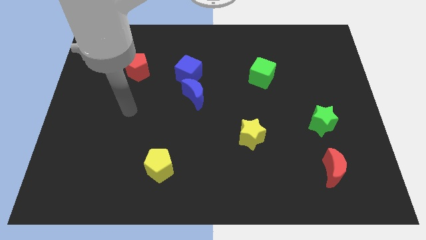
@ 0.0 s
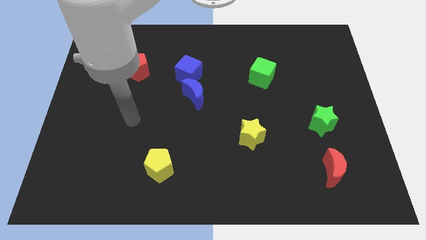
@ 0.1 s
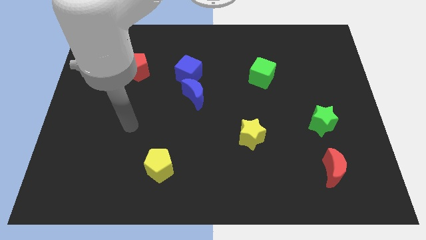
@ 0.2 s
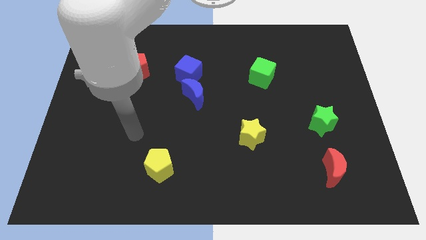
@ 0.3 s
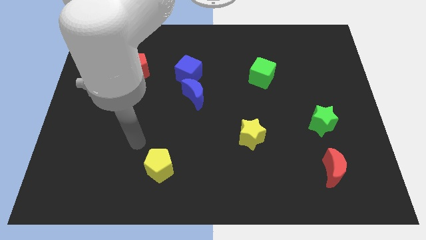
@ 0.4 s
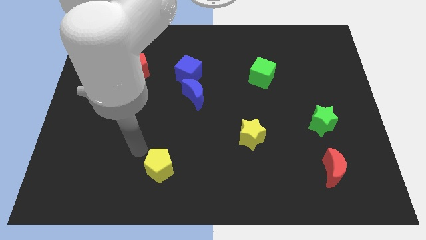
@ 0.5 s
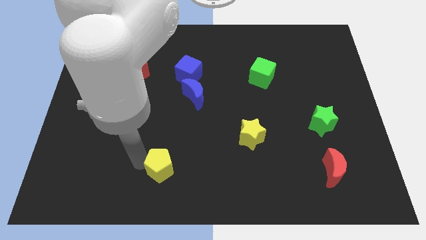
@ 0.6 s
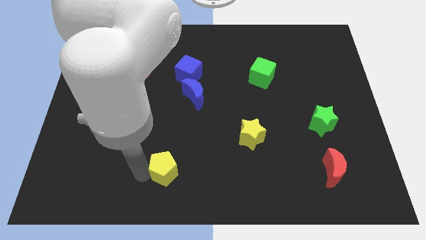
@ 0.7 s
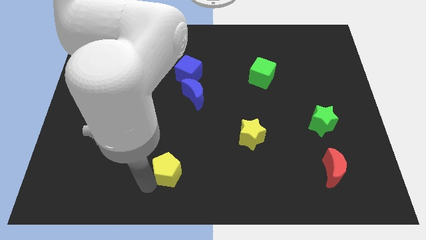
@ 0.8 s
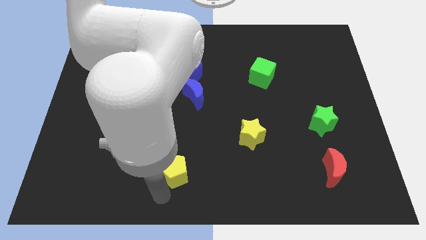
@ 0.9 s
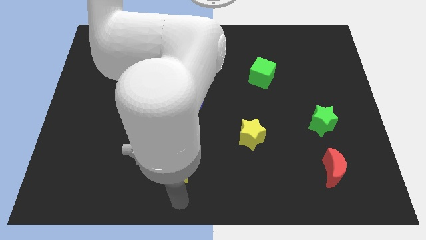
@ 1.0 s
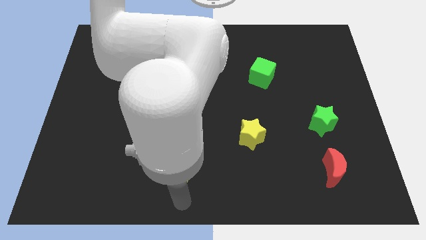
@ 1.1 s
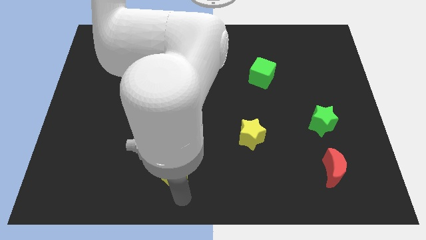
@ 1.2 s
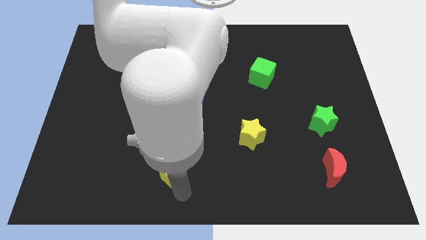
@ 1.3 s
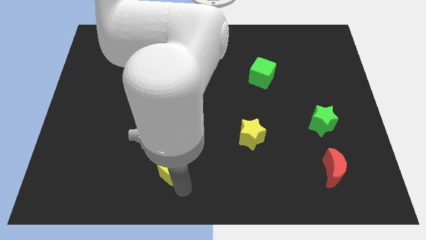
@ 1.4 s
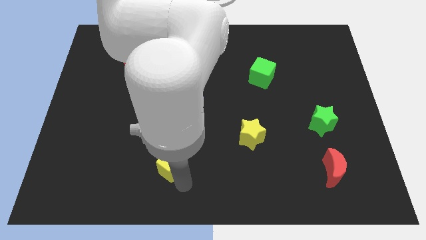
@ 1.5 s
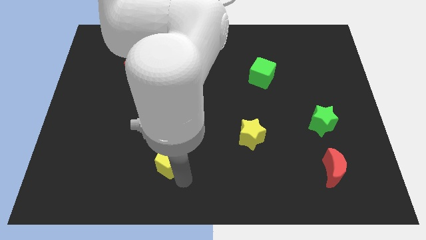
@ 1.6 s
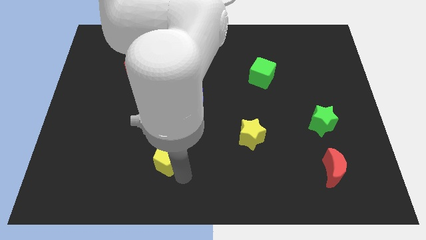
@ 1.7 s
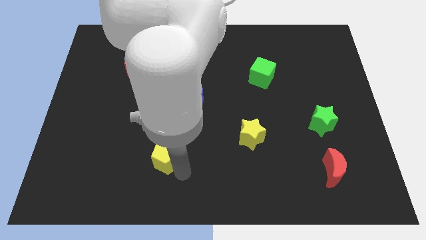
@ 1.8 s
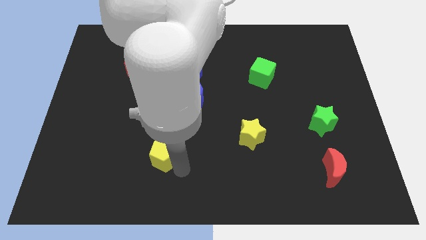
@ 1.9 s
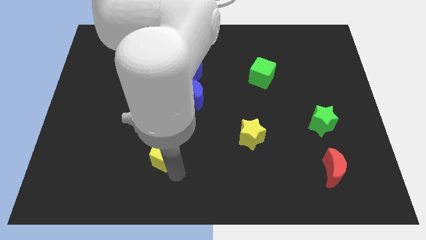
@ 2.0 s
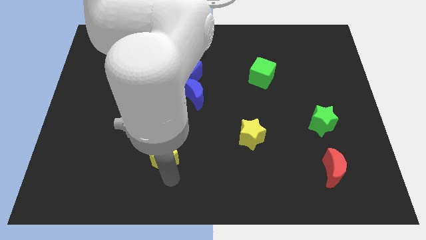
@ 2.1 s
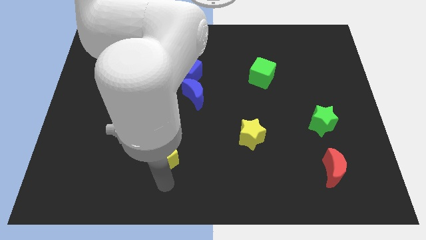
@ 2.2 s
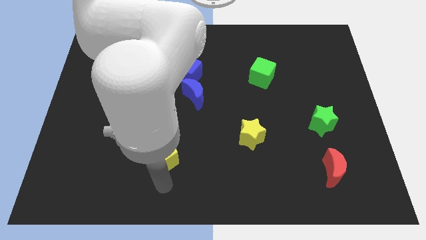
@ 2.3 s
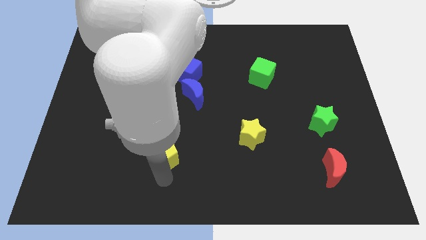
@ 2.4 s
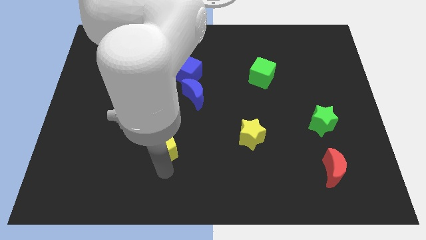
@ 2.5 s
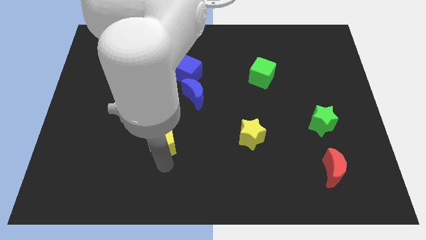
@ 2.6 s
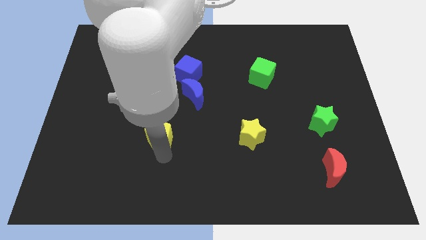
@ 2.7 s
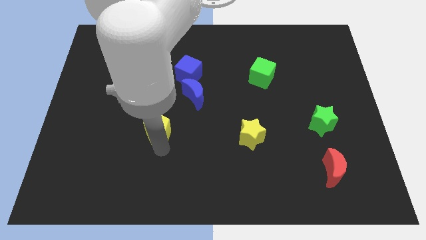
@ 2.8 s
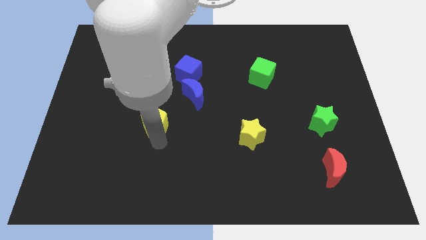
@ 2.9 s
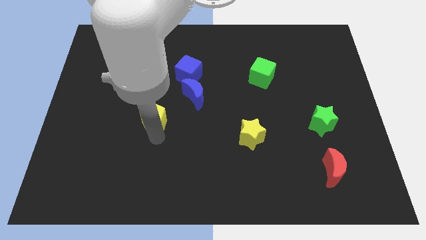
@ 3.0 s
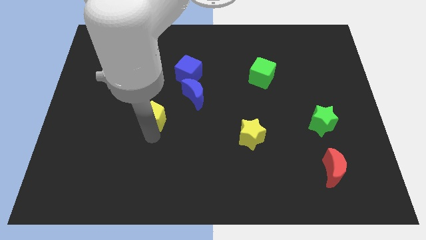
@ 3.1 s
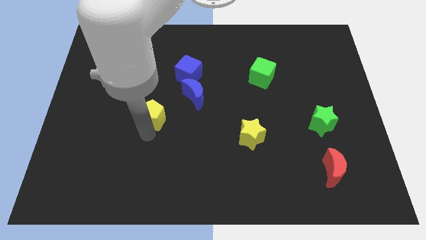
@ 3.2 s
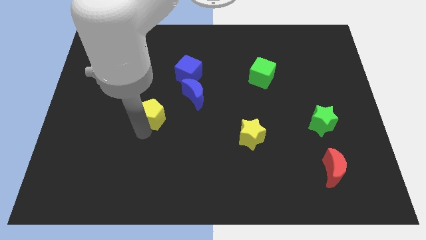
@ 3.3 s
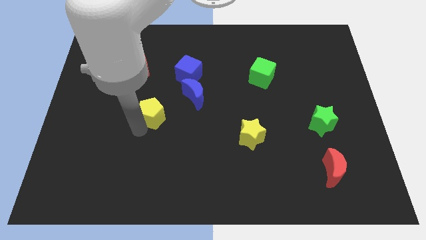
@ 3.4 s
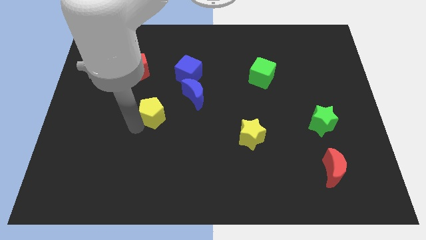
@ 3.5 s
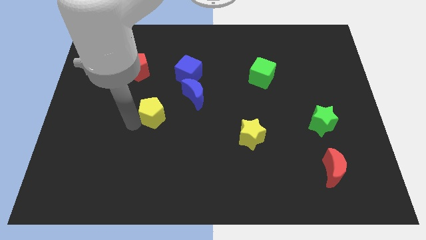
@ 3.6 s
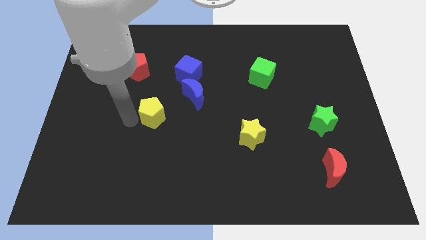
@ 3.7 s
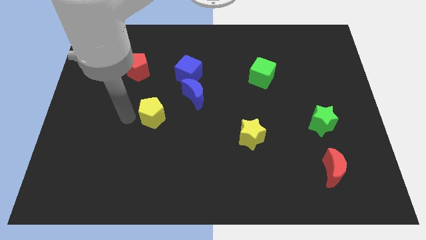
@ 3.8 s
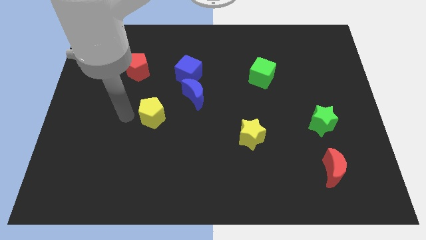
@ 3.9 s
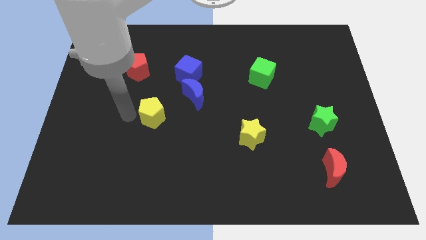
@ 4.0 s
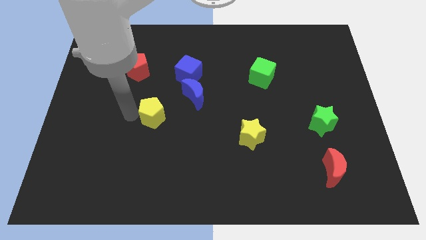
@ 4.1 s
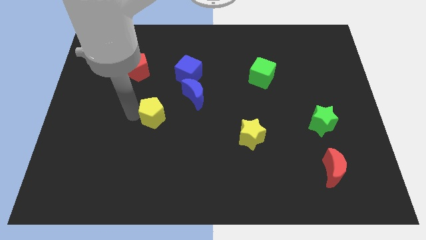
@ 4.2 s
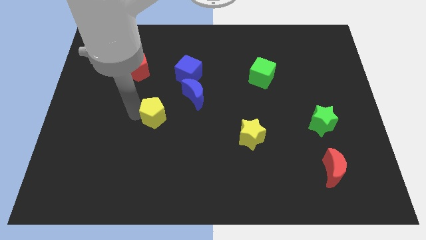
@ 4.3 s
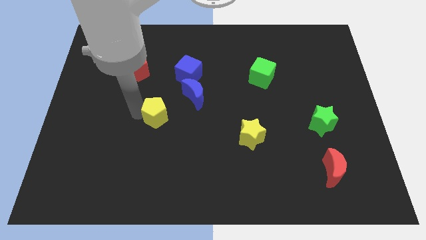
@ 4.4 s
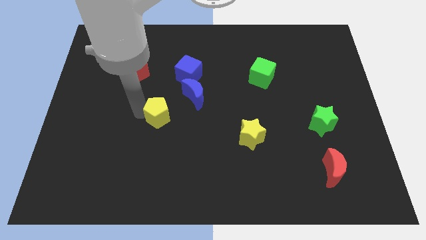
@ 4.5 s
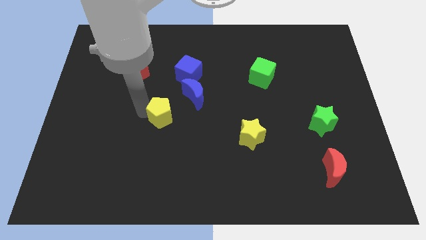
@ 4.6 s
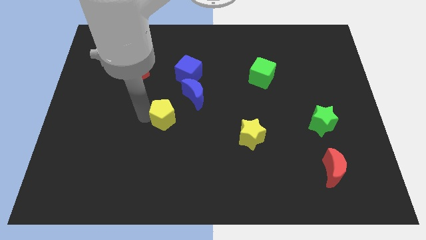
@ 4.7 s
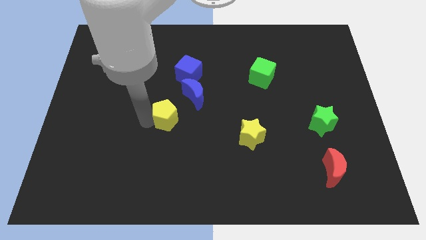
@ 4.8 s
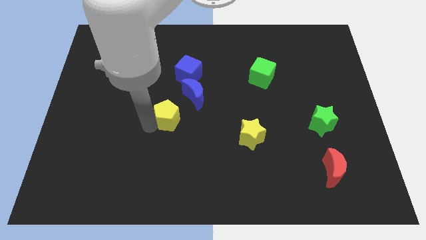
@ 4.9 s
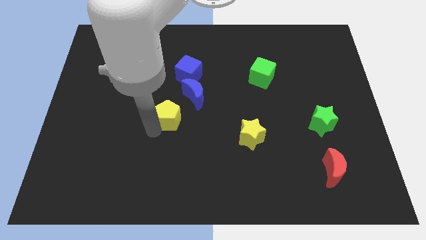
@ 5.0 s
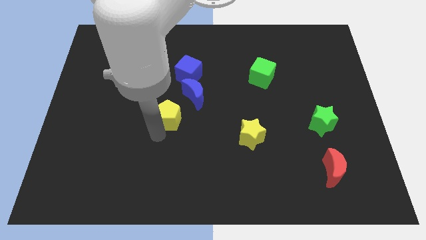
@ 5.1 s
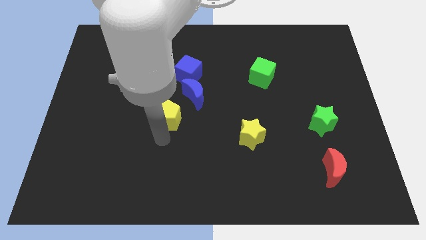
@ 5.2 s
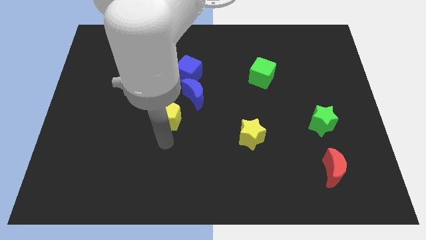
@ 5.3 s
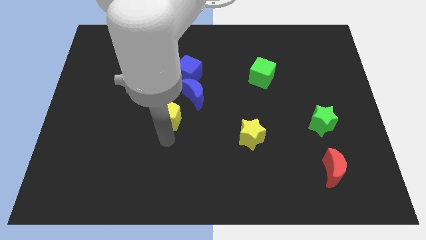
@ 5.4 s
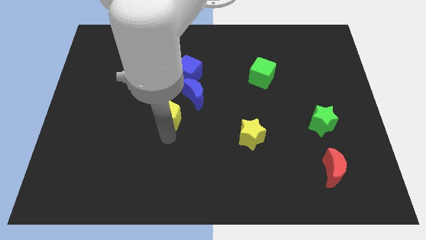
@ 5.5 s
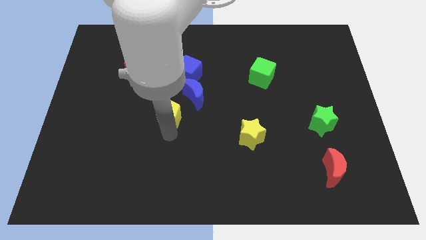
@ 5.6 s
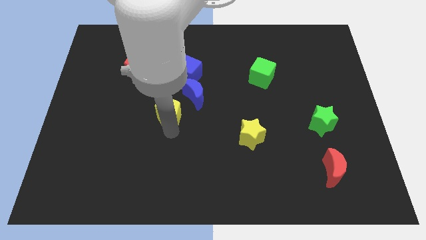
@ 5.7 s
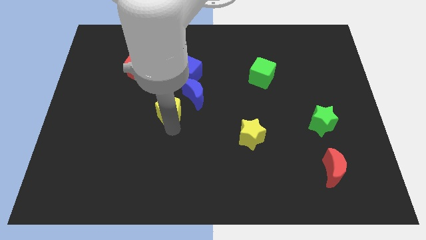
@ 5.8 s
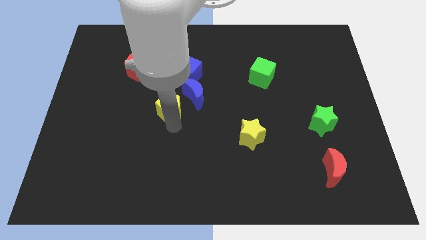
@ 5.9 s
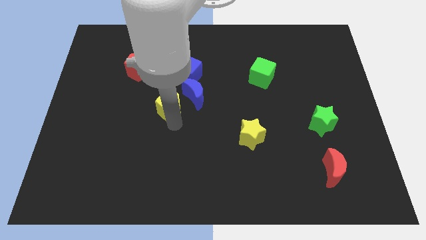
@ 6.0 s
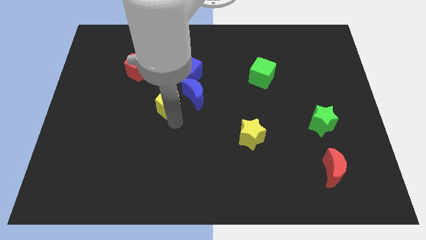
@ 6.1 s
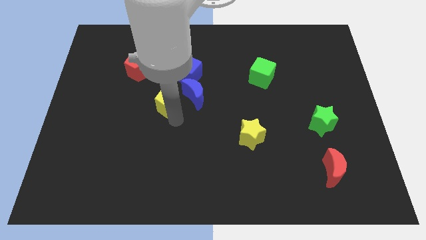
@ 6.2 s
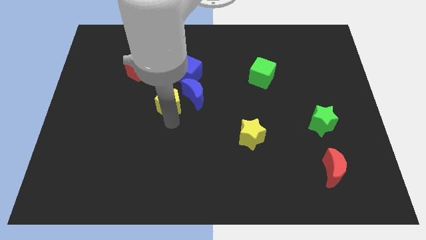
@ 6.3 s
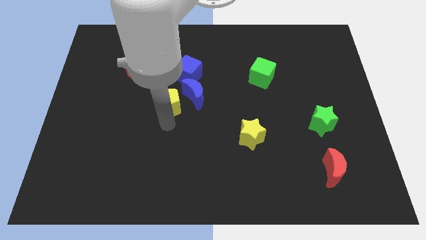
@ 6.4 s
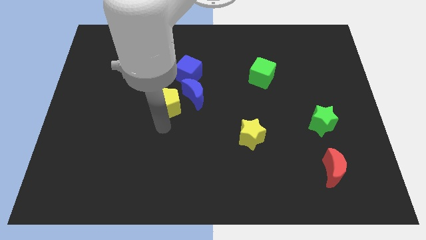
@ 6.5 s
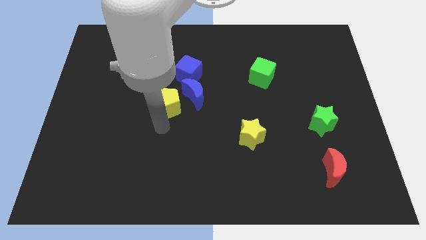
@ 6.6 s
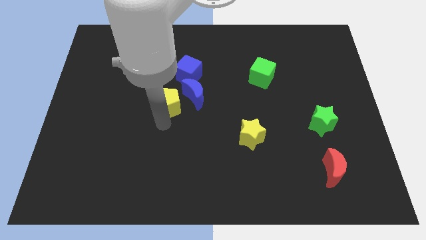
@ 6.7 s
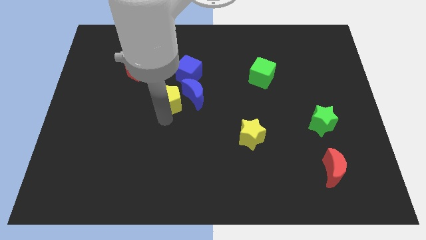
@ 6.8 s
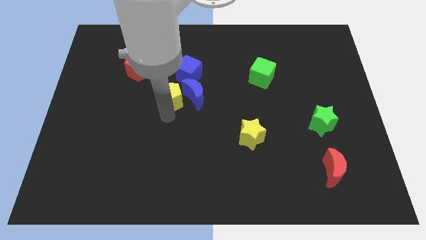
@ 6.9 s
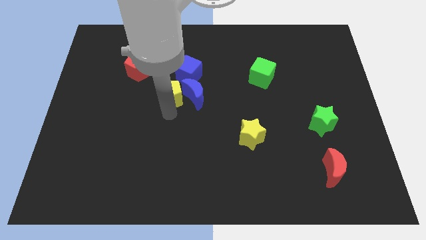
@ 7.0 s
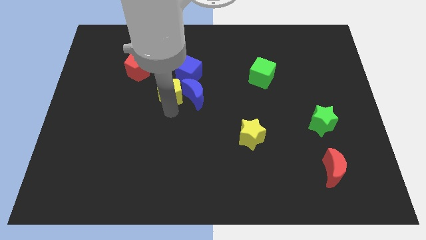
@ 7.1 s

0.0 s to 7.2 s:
push the yellow pentagon up

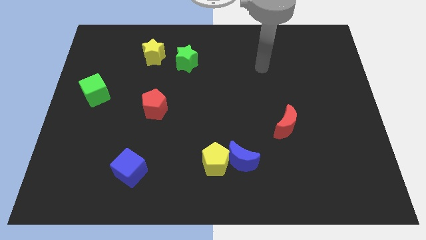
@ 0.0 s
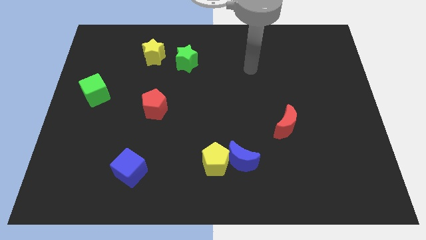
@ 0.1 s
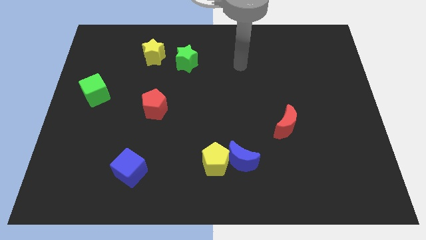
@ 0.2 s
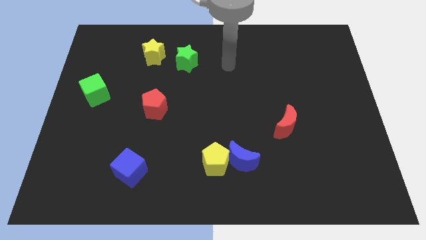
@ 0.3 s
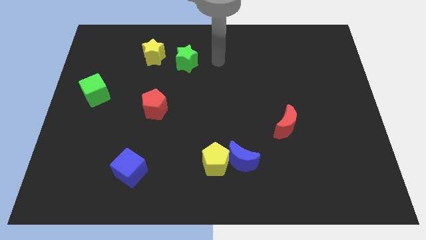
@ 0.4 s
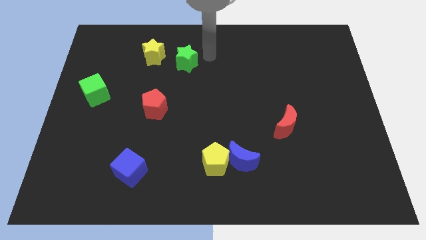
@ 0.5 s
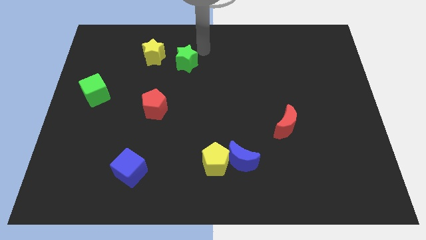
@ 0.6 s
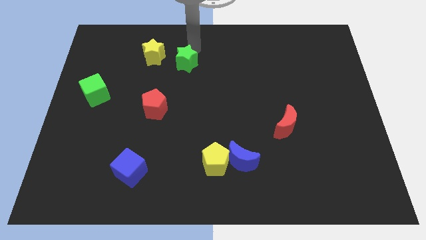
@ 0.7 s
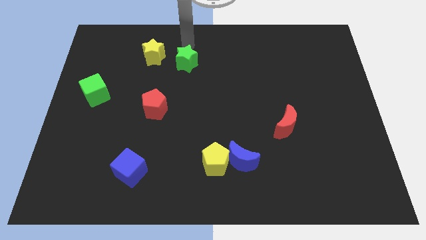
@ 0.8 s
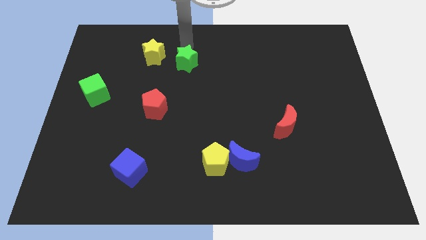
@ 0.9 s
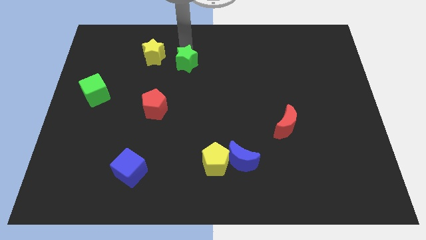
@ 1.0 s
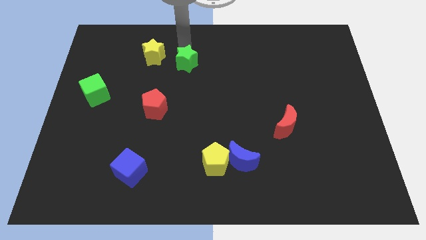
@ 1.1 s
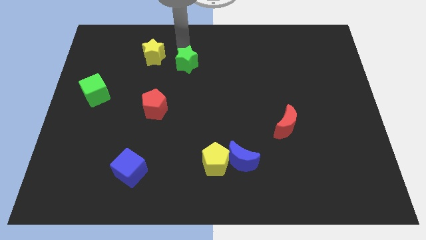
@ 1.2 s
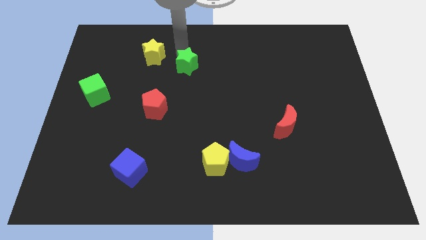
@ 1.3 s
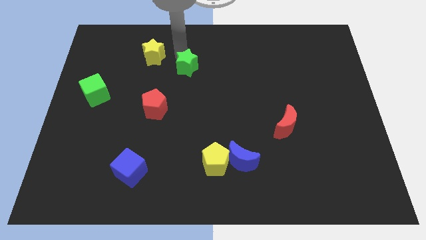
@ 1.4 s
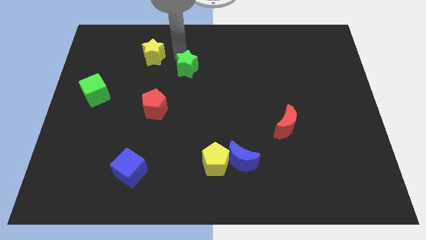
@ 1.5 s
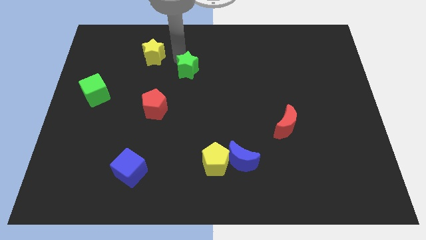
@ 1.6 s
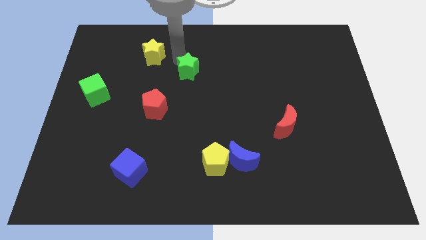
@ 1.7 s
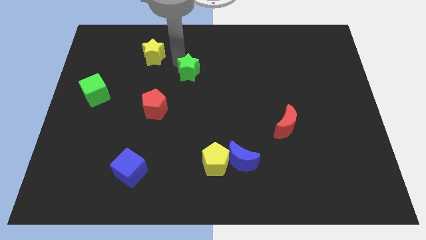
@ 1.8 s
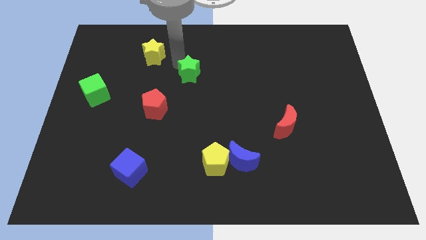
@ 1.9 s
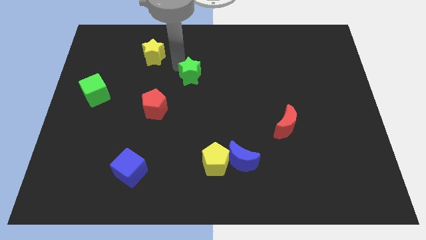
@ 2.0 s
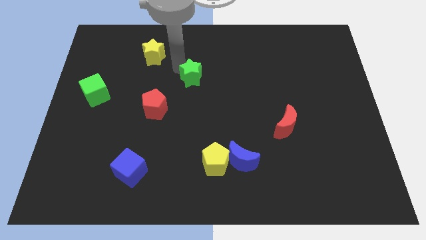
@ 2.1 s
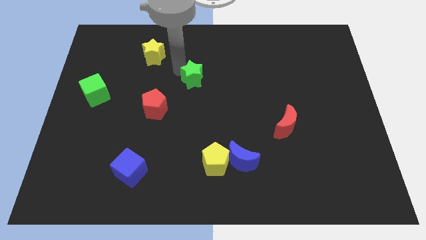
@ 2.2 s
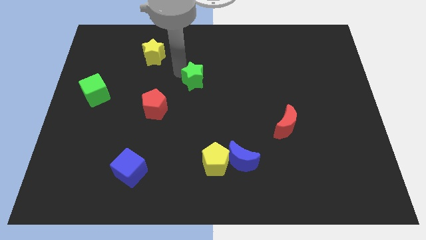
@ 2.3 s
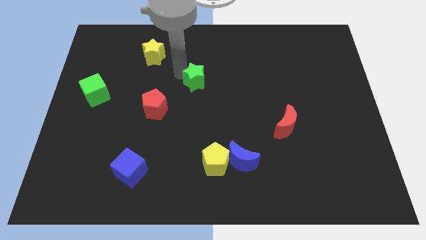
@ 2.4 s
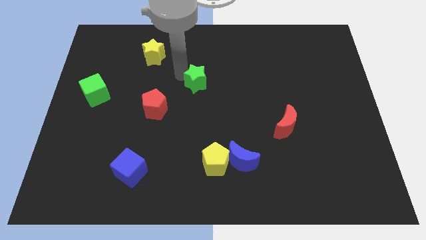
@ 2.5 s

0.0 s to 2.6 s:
push the green star down a bit
